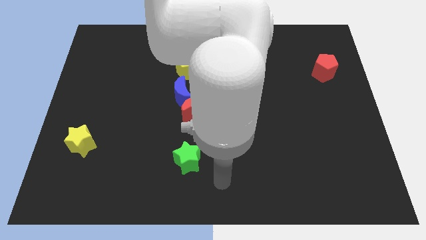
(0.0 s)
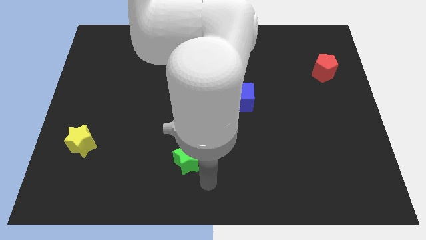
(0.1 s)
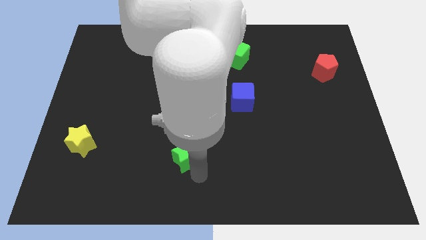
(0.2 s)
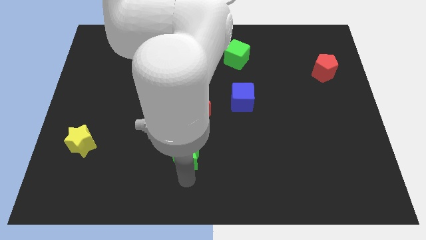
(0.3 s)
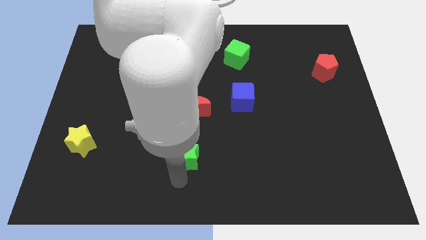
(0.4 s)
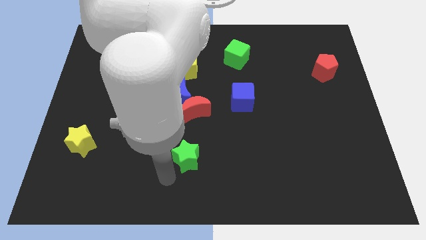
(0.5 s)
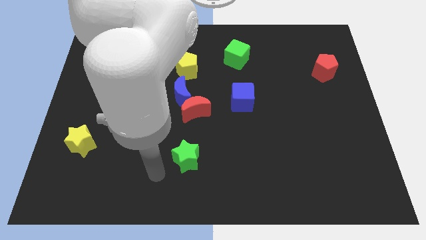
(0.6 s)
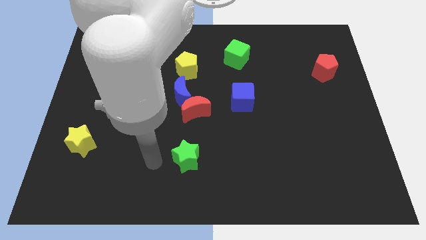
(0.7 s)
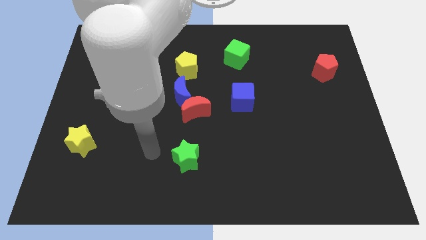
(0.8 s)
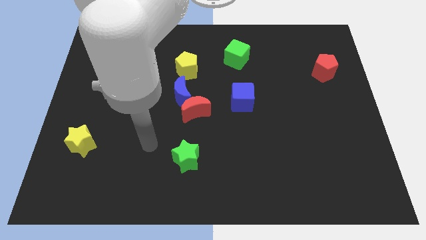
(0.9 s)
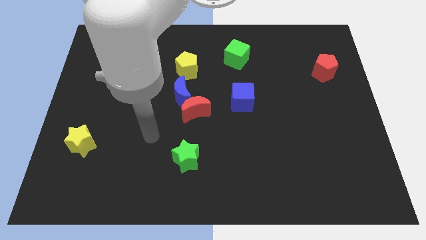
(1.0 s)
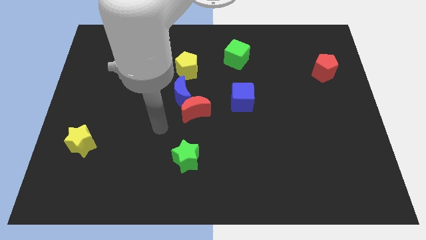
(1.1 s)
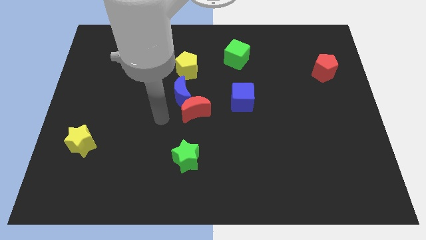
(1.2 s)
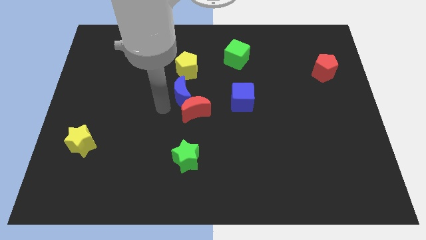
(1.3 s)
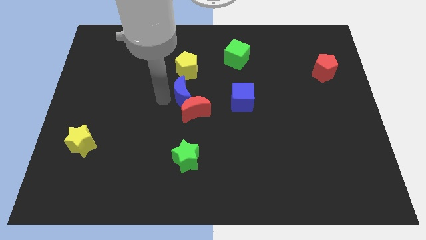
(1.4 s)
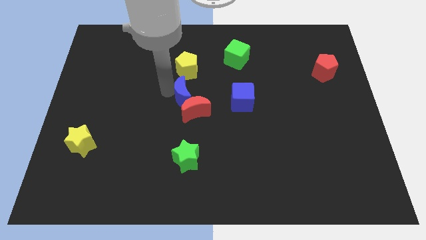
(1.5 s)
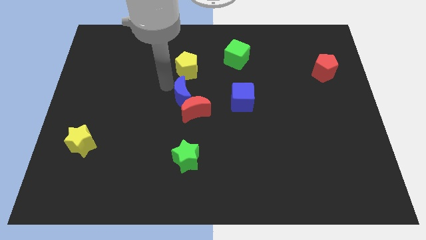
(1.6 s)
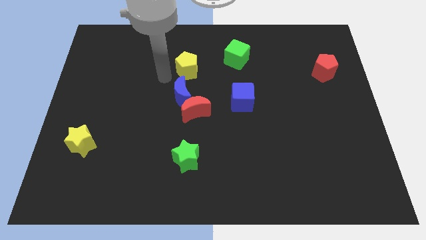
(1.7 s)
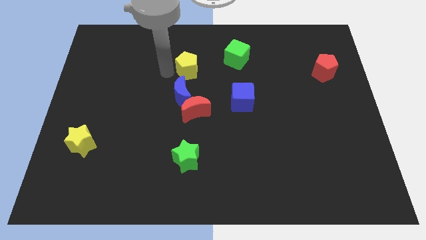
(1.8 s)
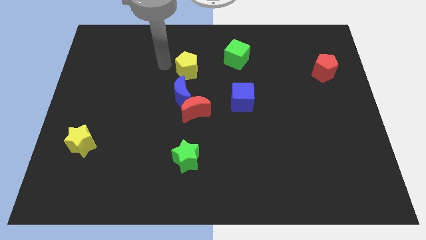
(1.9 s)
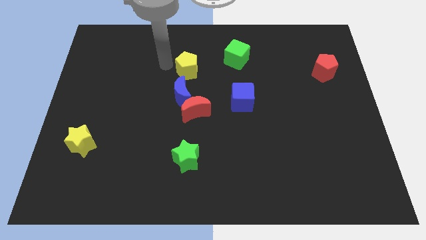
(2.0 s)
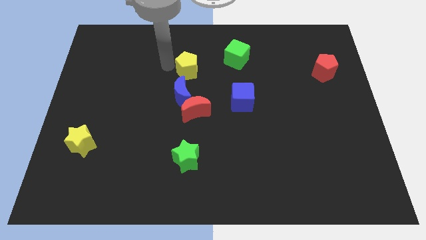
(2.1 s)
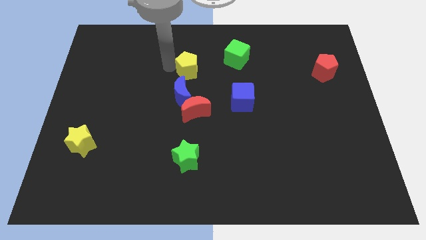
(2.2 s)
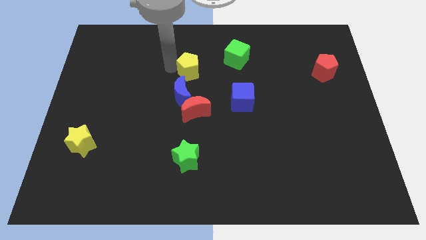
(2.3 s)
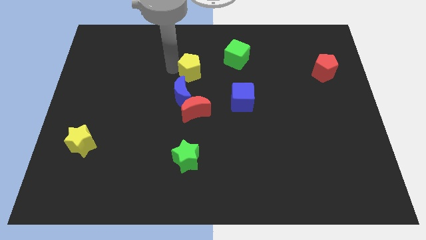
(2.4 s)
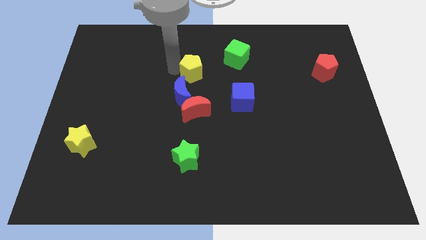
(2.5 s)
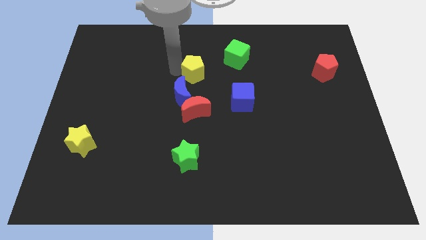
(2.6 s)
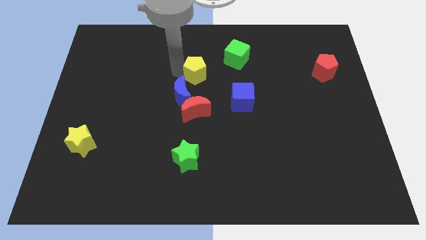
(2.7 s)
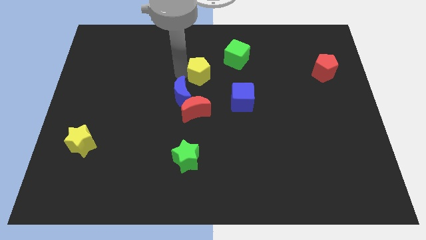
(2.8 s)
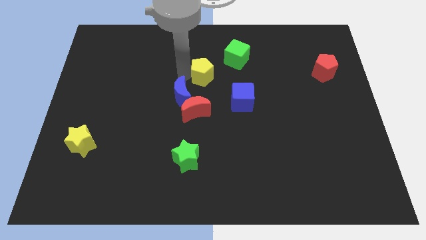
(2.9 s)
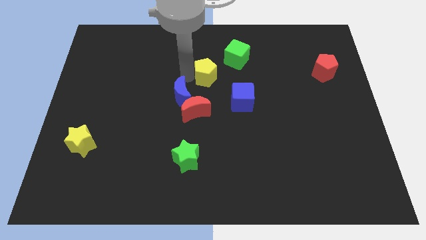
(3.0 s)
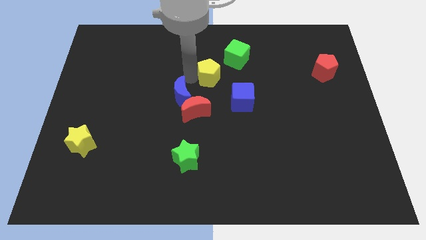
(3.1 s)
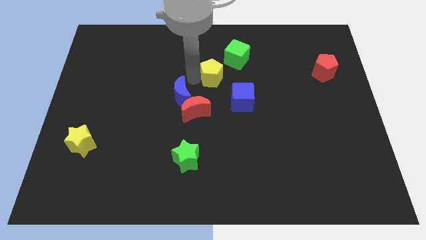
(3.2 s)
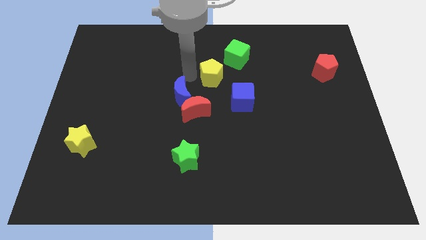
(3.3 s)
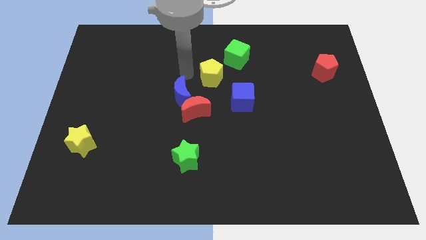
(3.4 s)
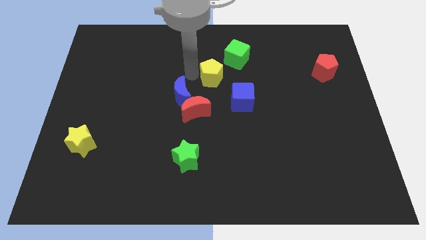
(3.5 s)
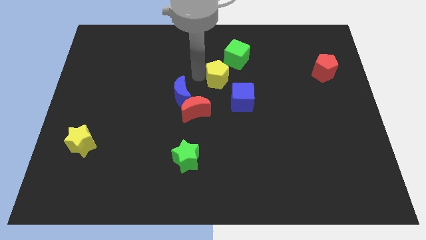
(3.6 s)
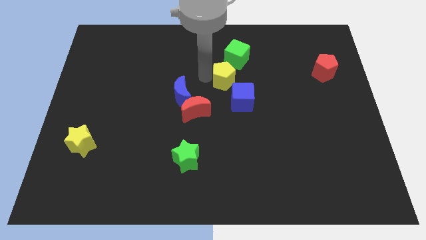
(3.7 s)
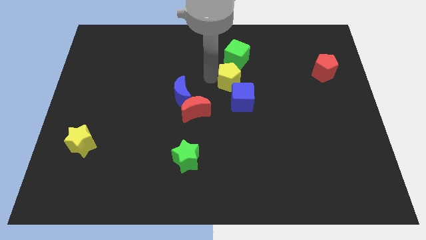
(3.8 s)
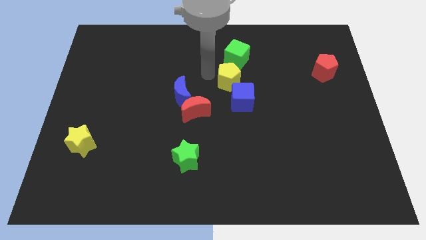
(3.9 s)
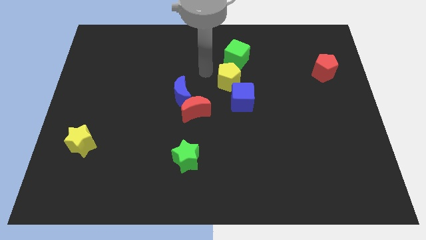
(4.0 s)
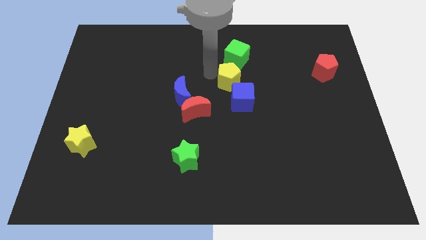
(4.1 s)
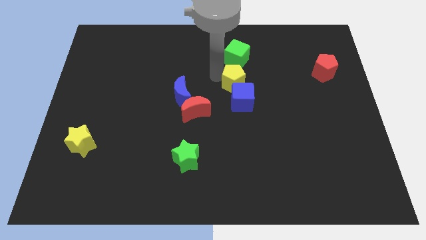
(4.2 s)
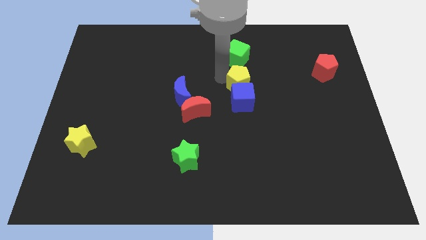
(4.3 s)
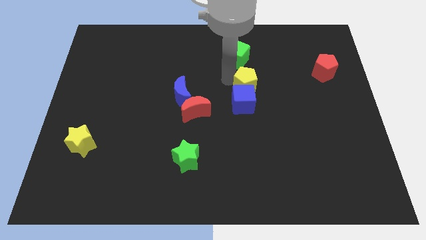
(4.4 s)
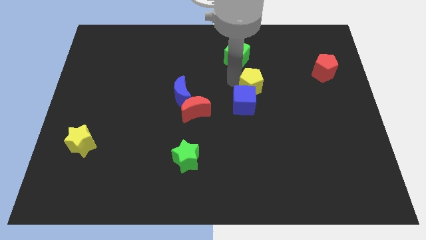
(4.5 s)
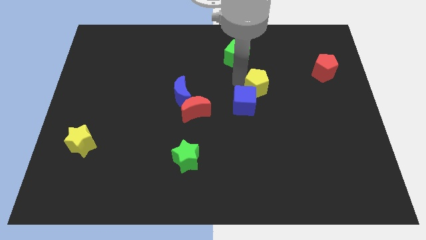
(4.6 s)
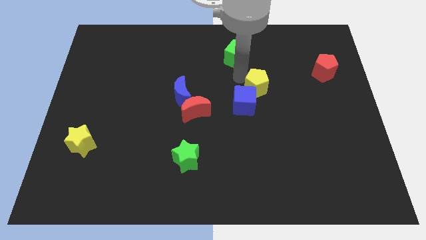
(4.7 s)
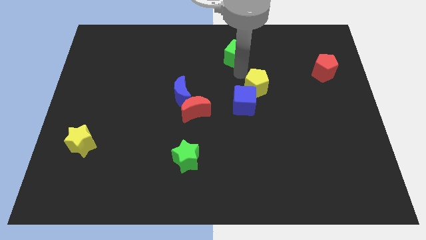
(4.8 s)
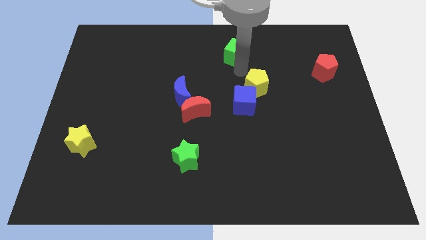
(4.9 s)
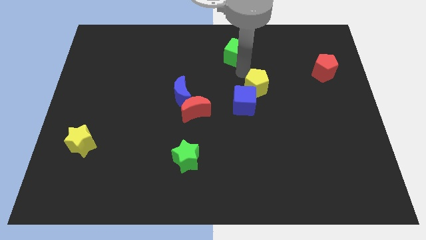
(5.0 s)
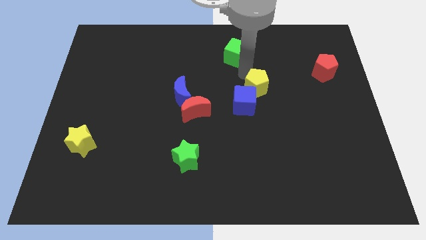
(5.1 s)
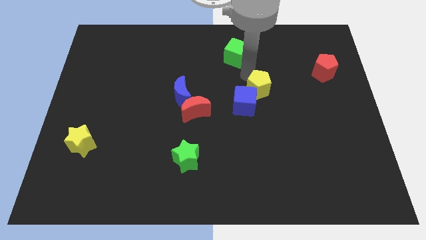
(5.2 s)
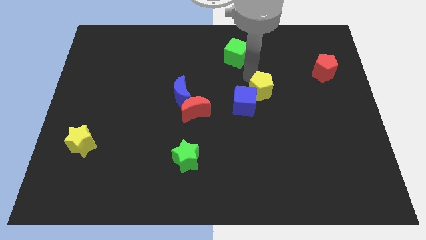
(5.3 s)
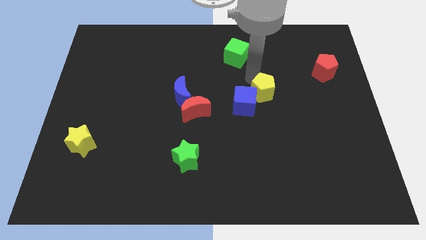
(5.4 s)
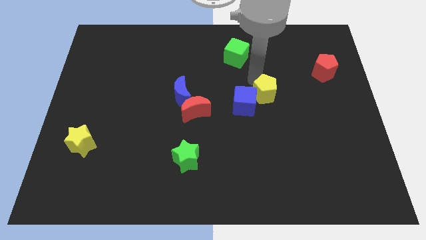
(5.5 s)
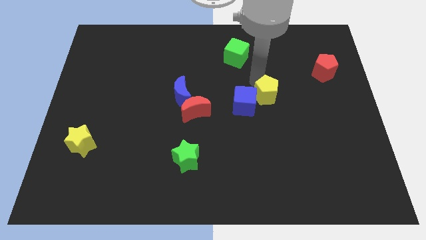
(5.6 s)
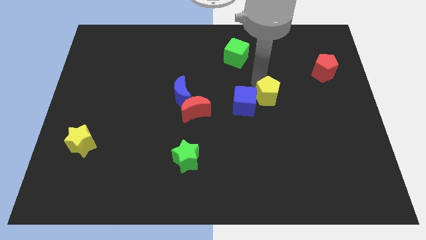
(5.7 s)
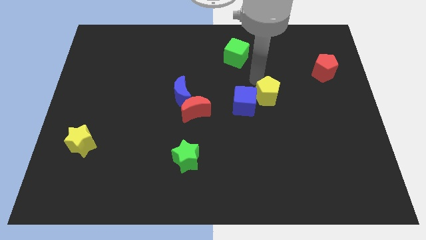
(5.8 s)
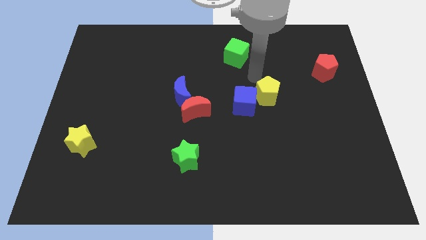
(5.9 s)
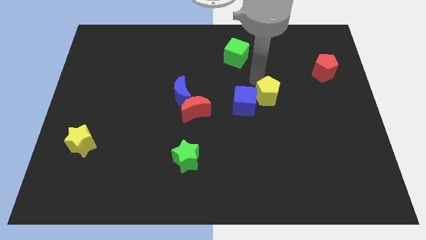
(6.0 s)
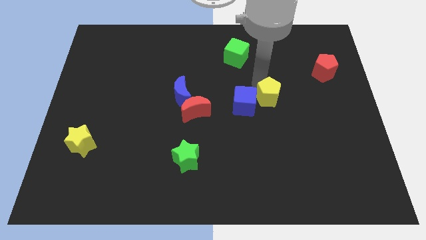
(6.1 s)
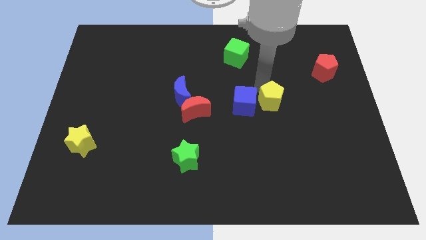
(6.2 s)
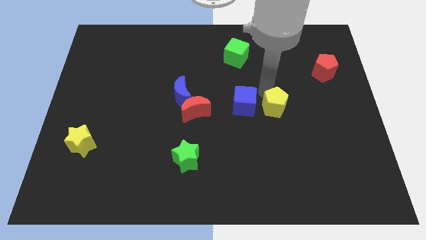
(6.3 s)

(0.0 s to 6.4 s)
push the yellow pentagon downwards and then to the right

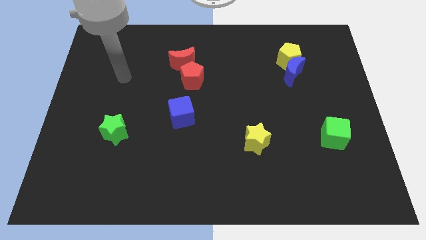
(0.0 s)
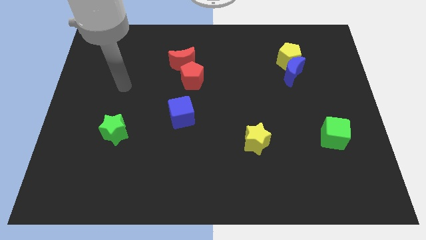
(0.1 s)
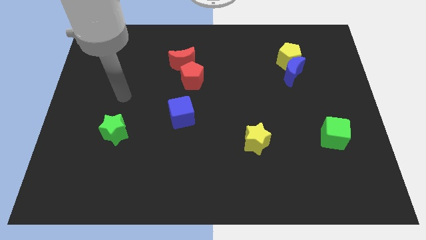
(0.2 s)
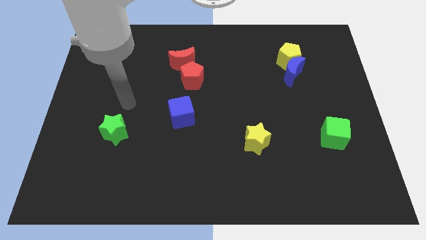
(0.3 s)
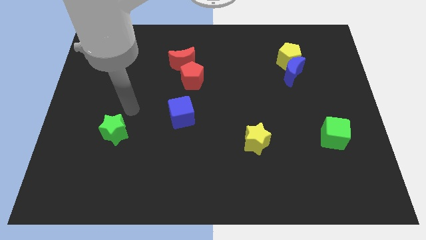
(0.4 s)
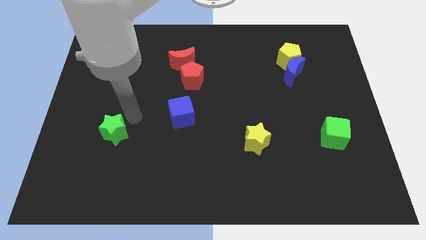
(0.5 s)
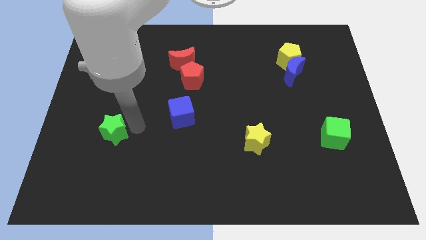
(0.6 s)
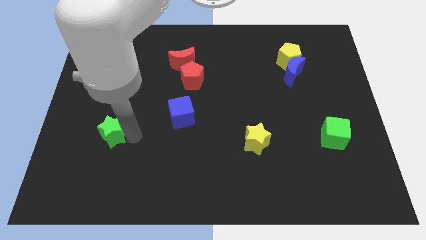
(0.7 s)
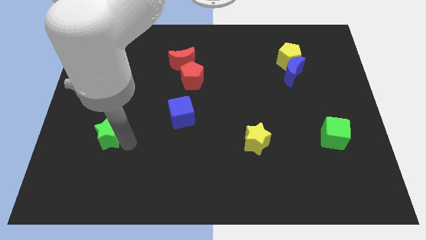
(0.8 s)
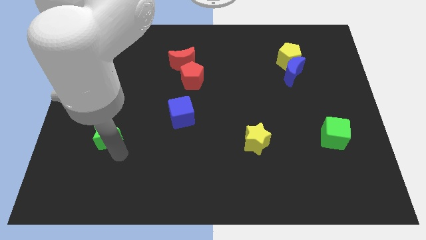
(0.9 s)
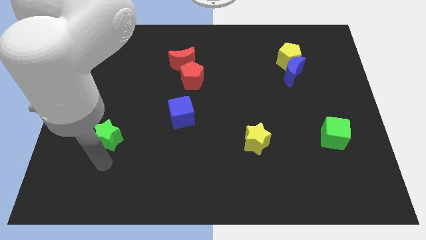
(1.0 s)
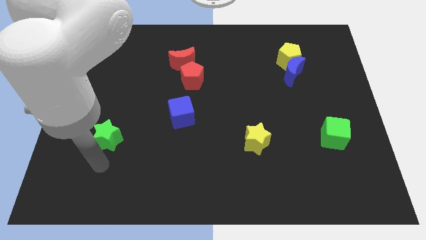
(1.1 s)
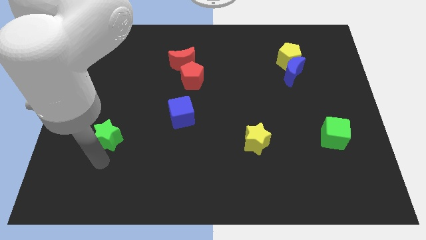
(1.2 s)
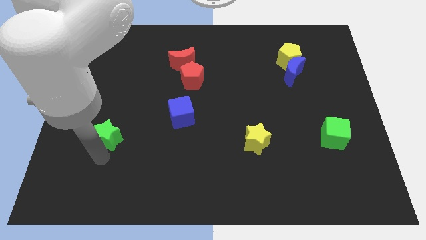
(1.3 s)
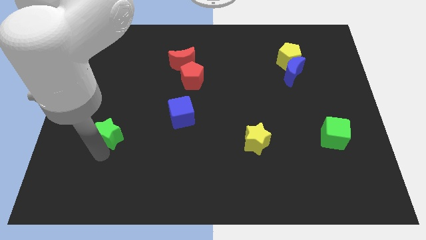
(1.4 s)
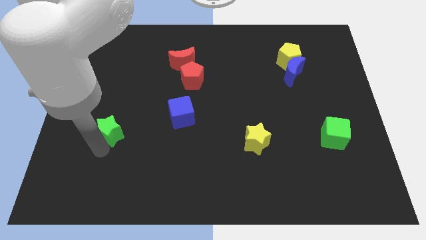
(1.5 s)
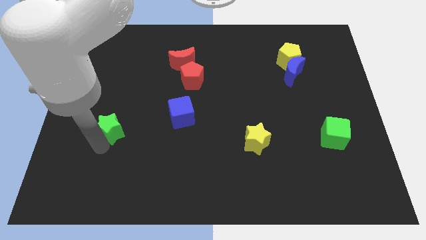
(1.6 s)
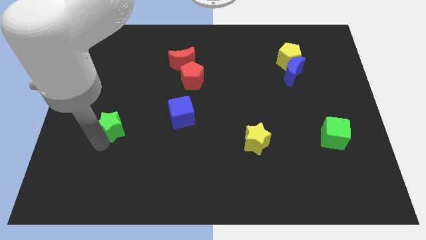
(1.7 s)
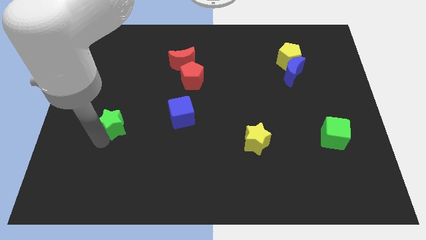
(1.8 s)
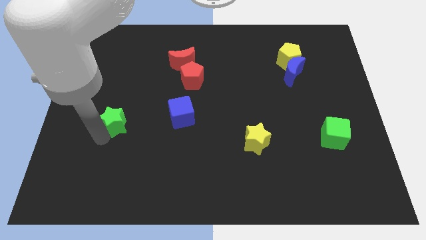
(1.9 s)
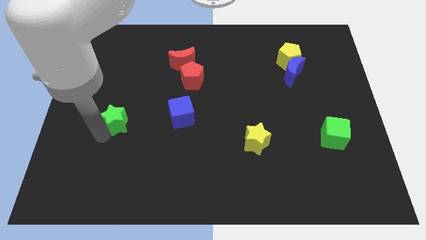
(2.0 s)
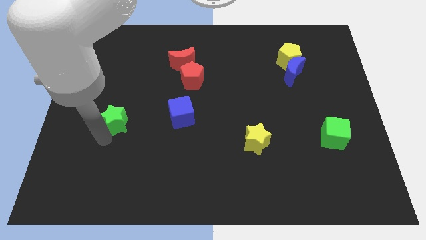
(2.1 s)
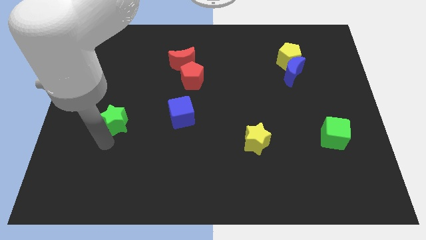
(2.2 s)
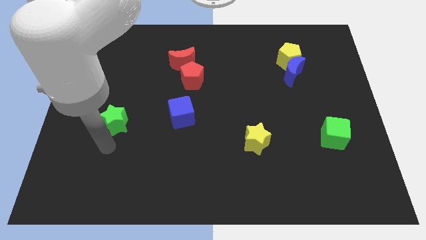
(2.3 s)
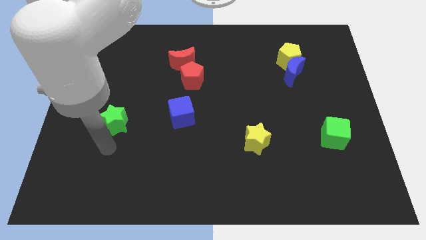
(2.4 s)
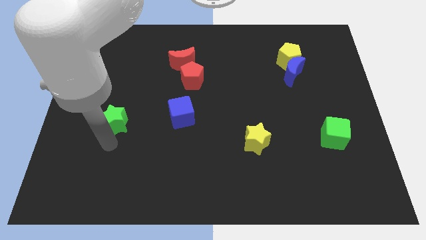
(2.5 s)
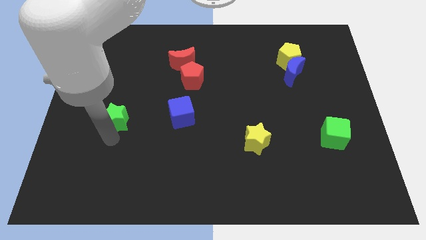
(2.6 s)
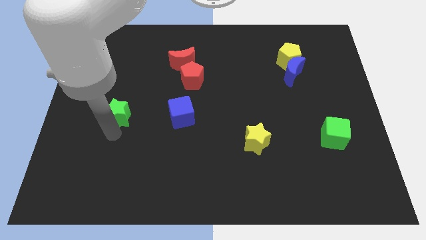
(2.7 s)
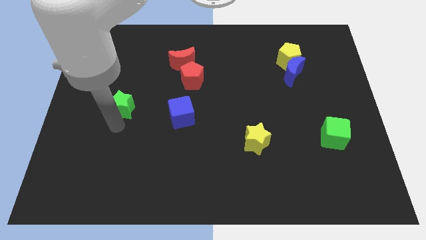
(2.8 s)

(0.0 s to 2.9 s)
slightly move the green star up
